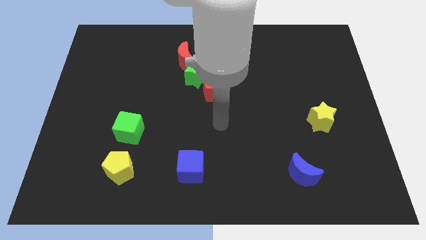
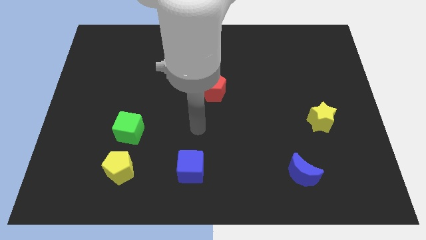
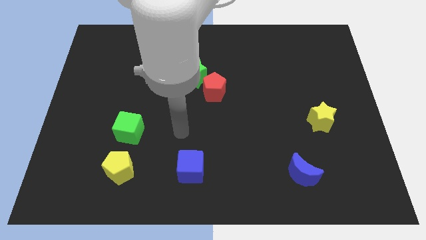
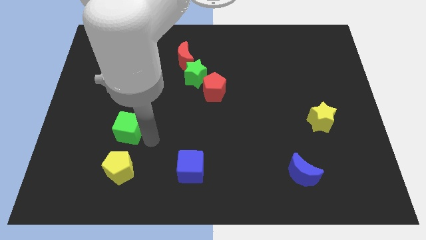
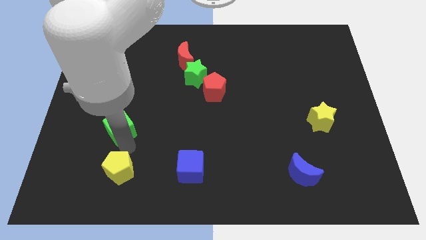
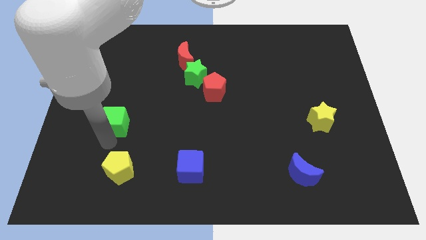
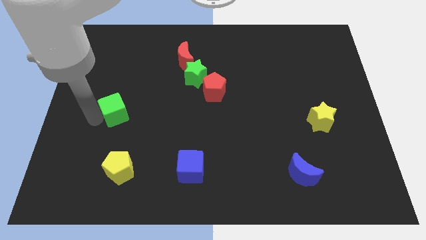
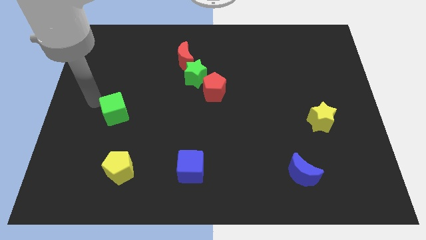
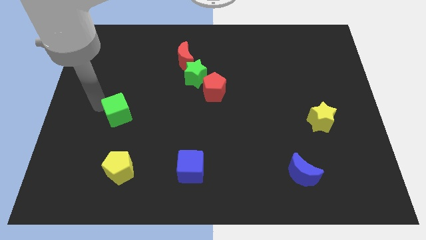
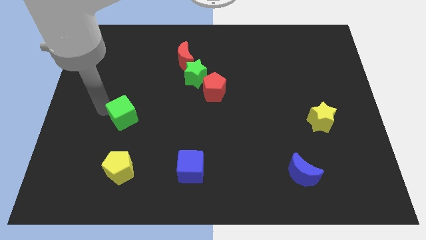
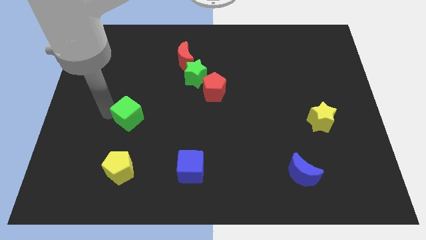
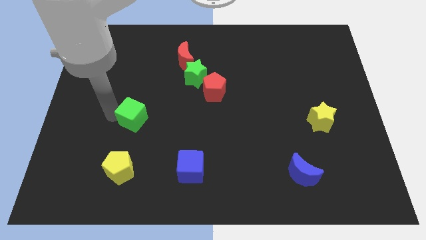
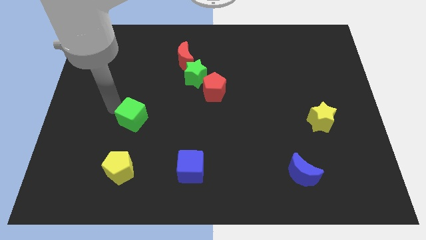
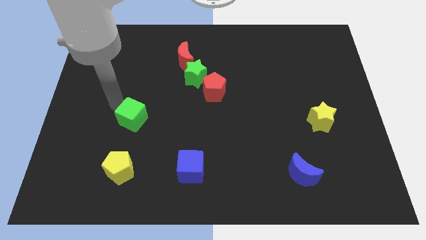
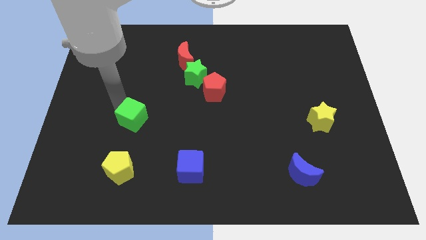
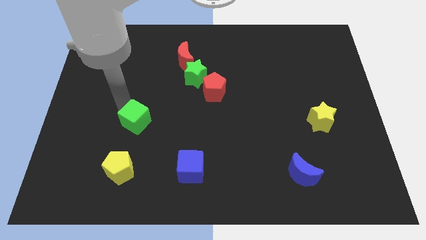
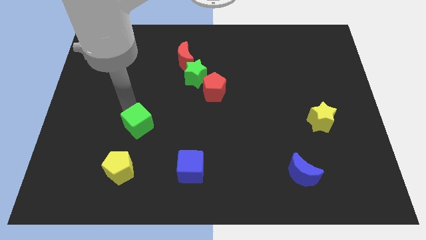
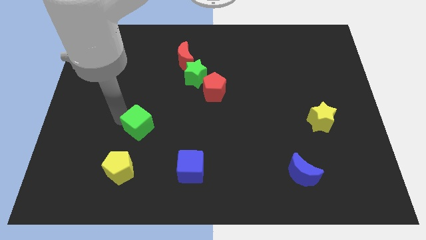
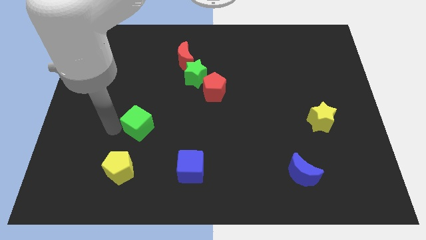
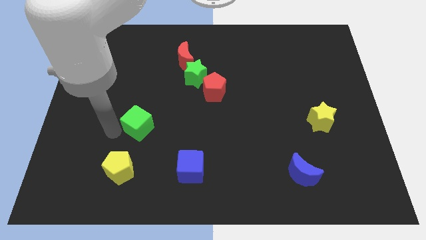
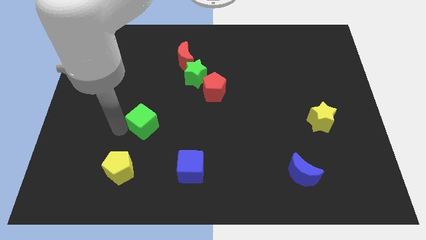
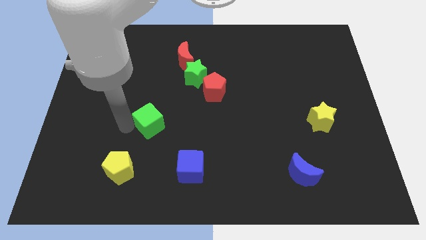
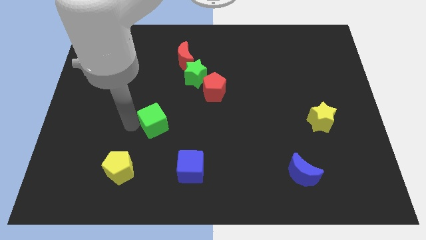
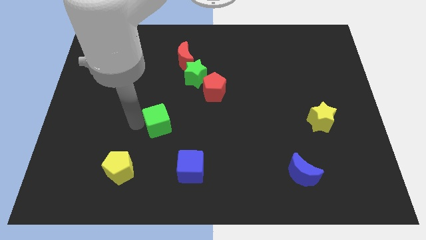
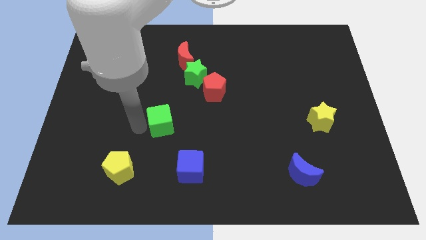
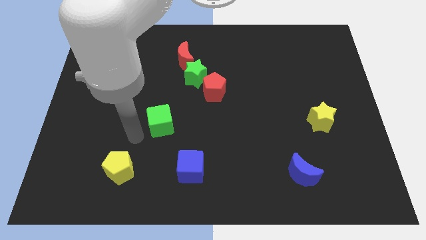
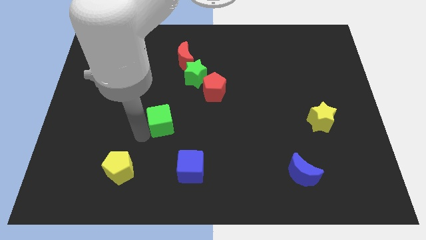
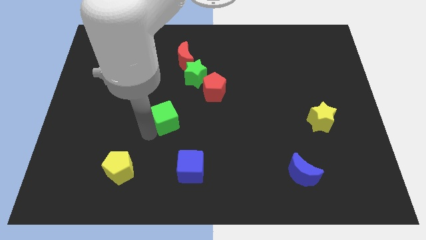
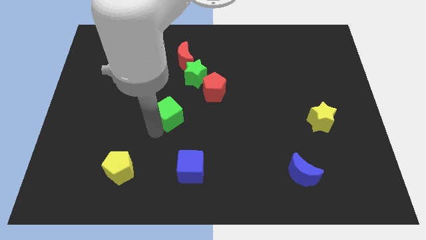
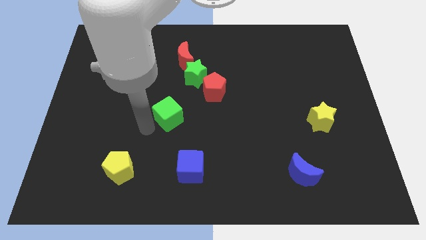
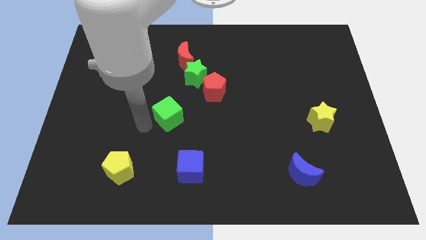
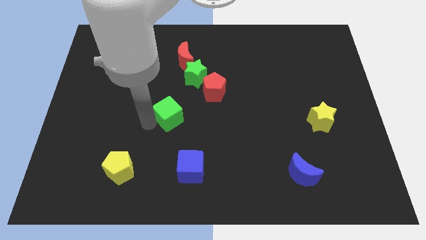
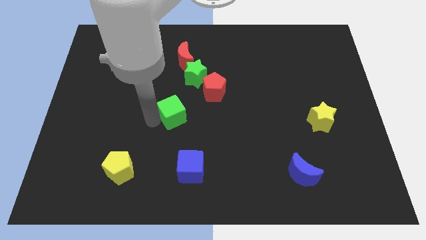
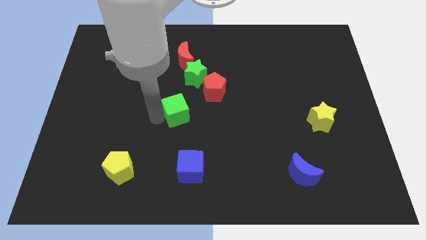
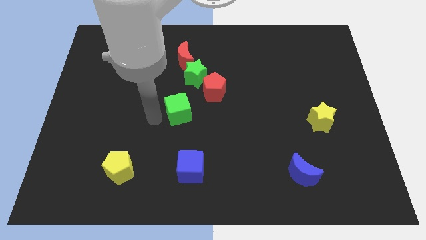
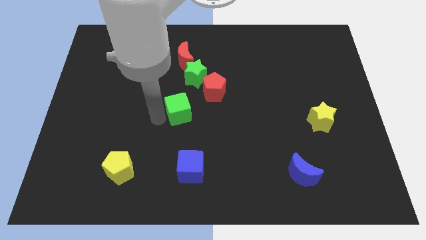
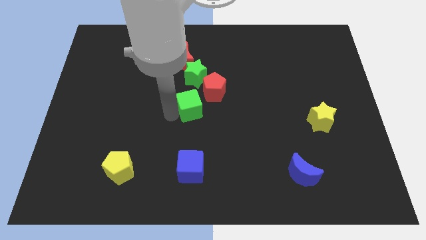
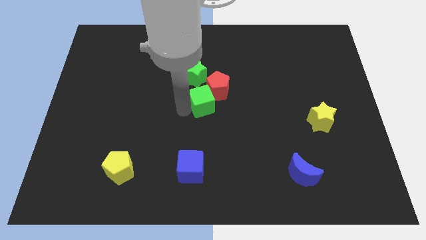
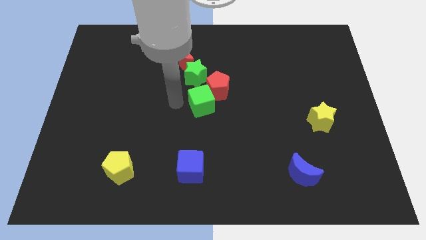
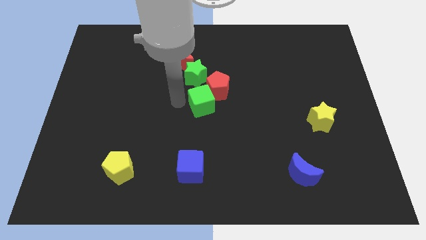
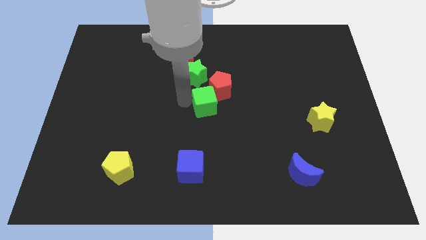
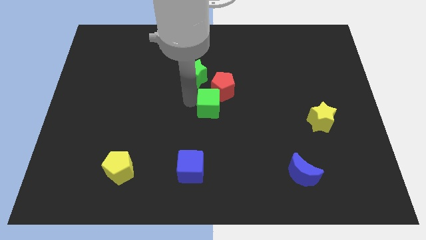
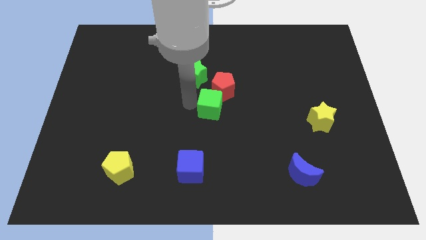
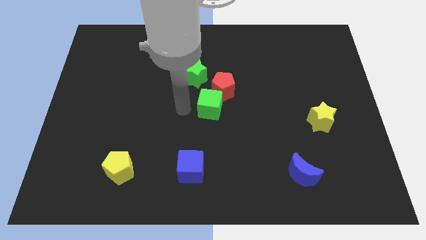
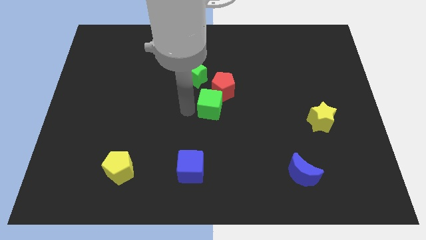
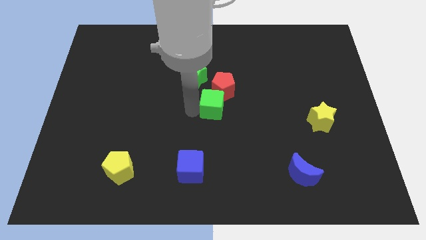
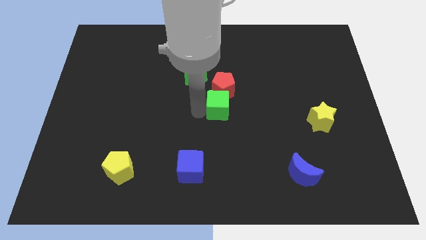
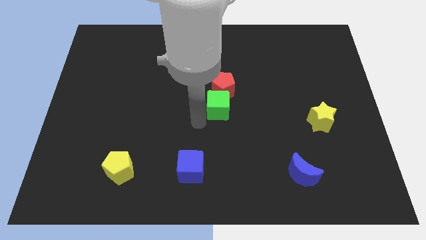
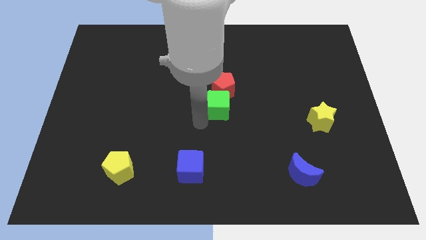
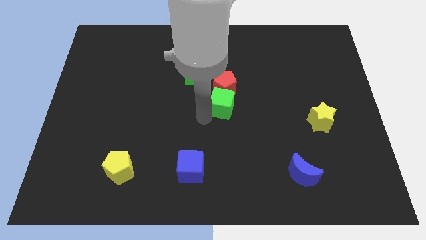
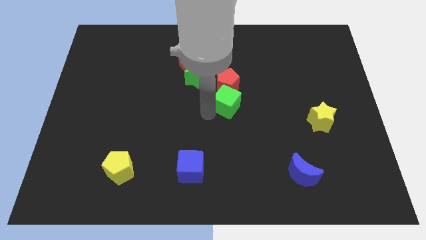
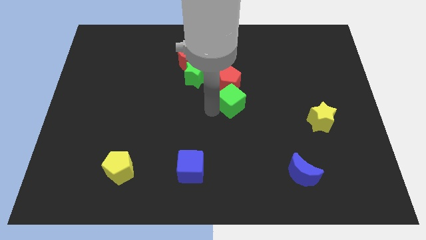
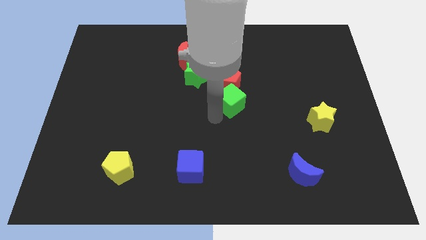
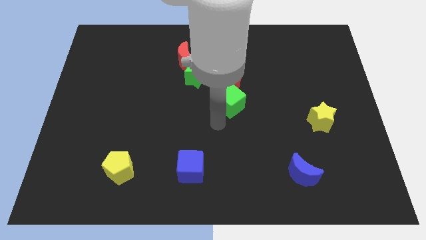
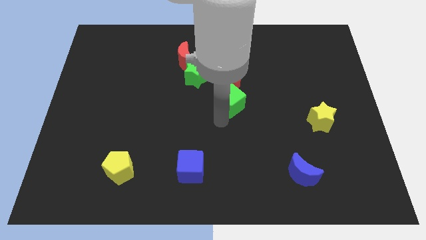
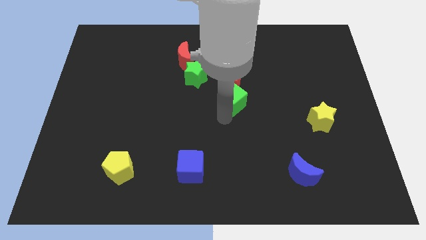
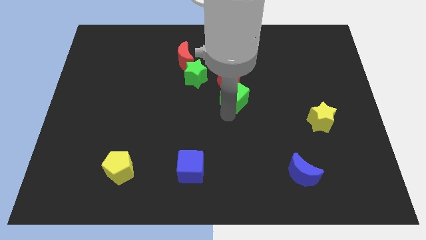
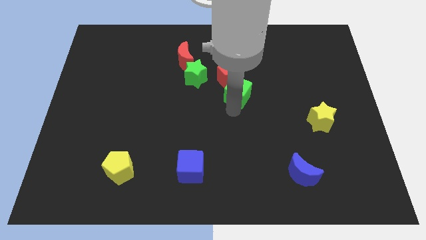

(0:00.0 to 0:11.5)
slide the green cube upwards and then right

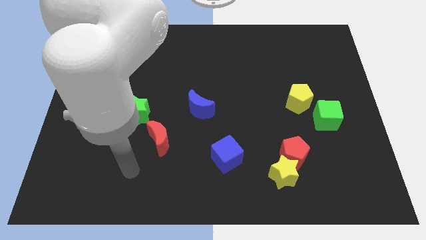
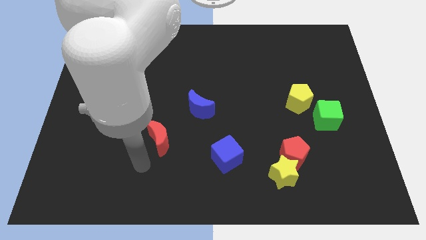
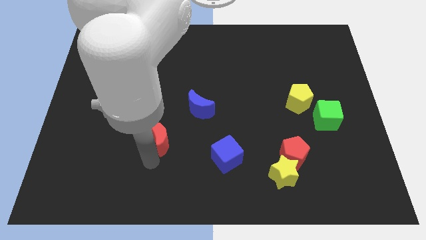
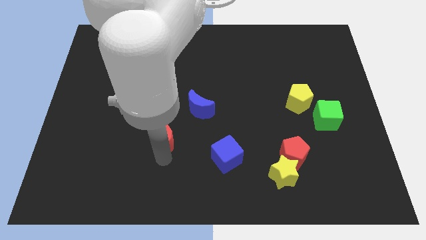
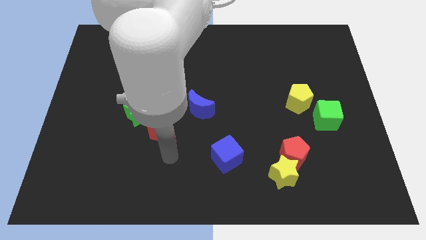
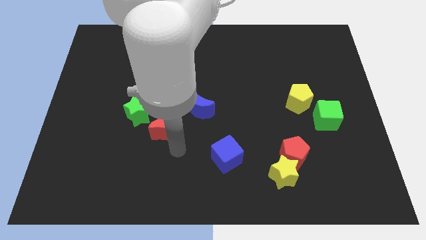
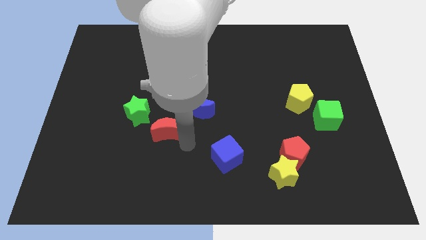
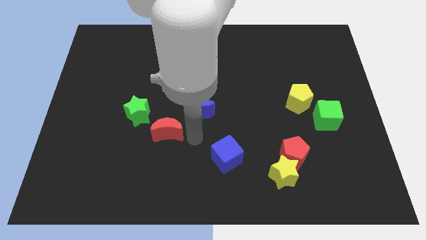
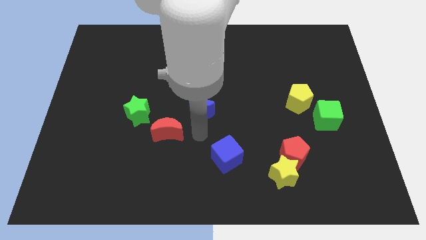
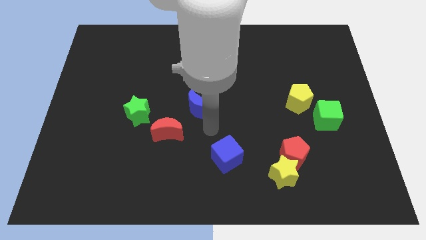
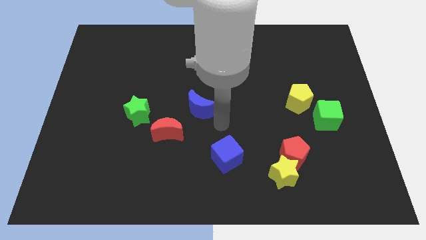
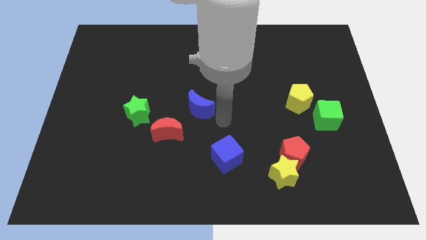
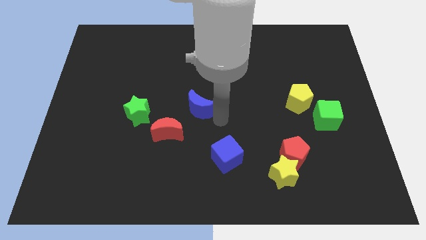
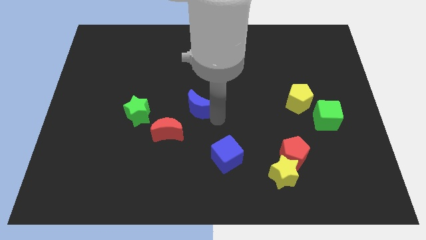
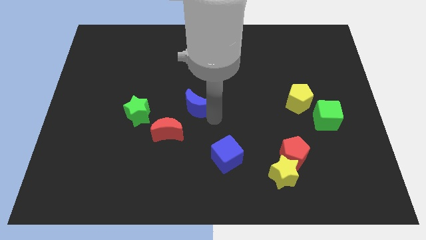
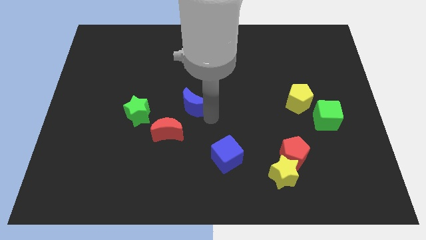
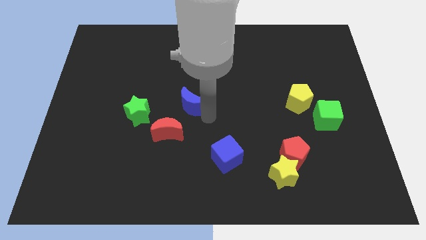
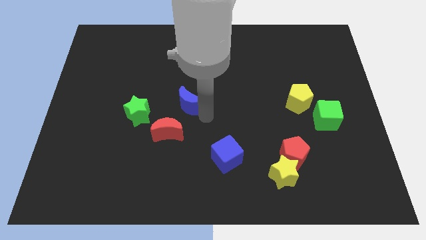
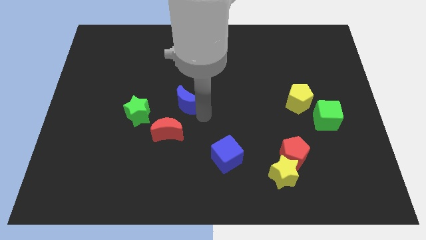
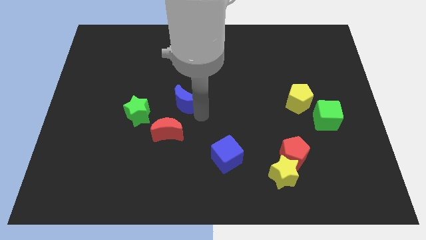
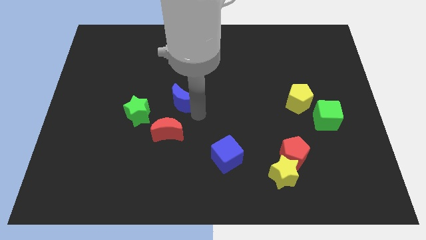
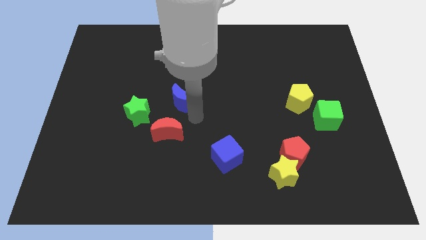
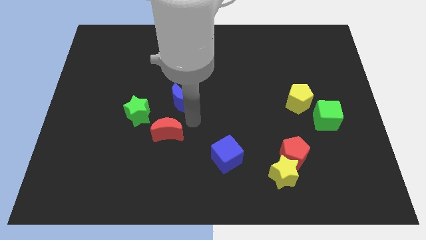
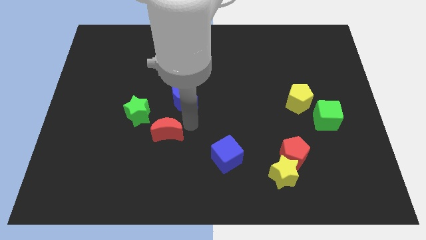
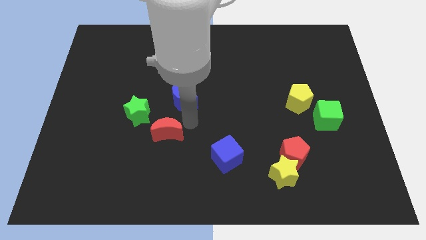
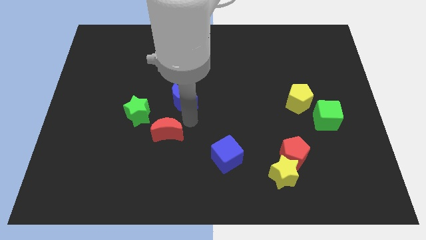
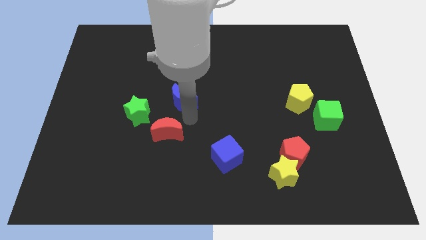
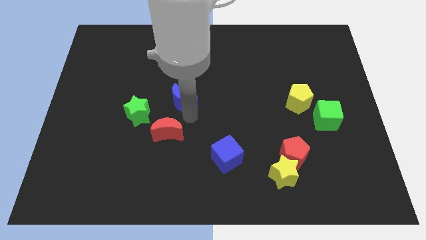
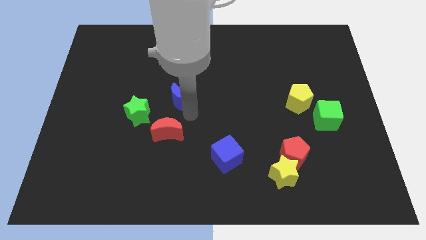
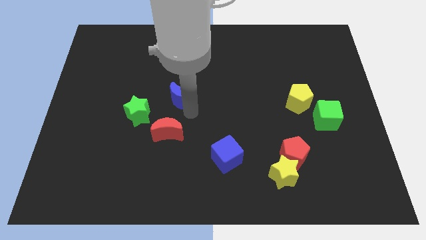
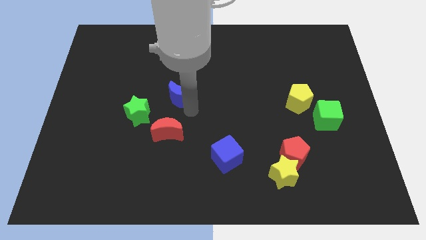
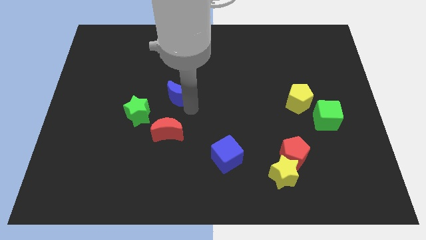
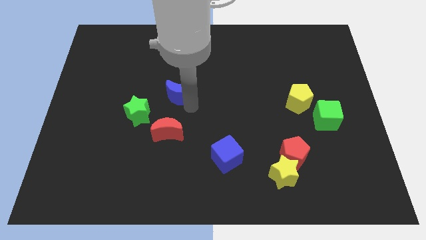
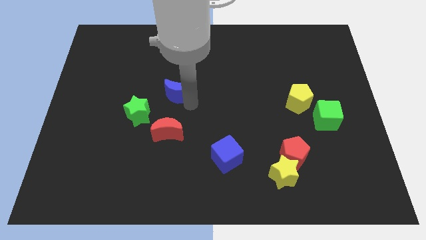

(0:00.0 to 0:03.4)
move the blue moon slightly up and then left
